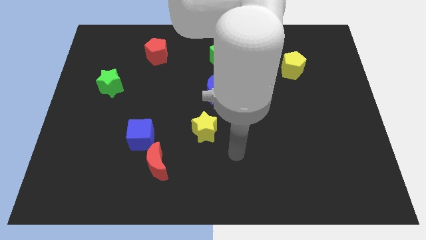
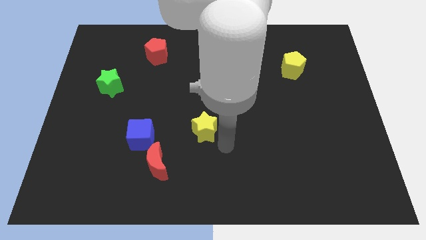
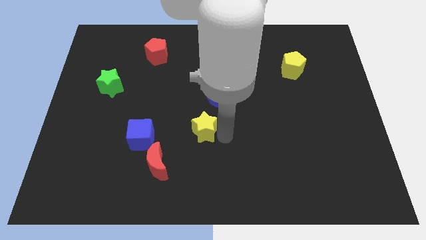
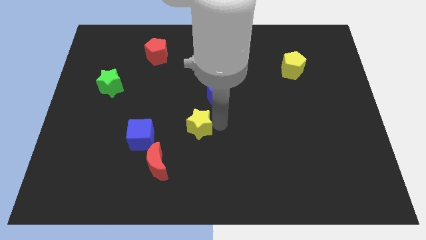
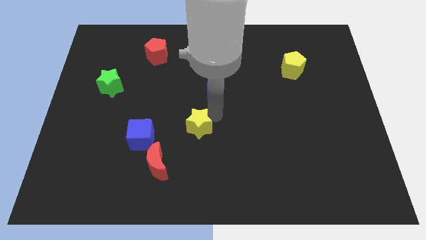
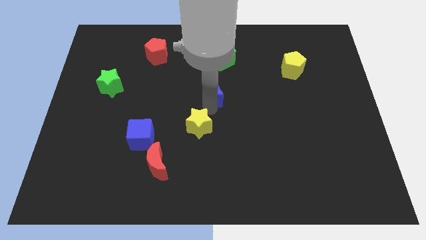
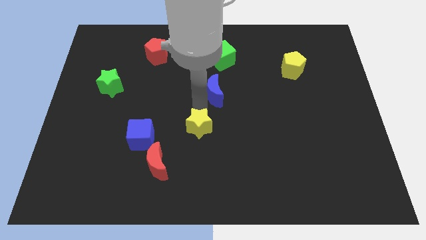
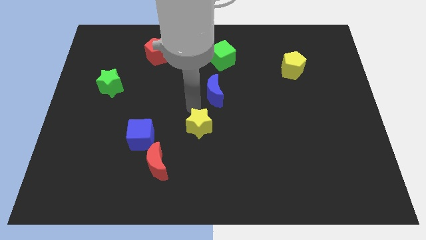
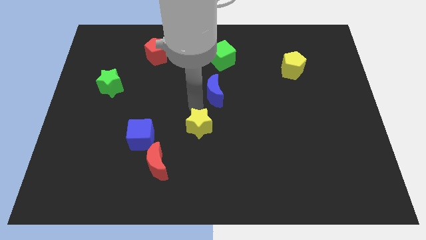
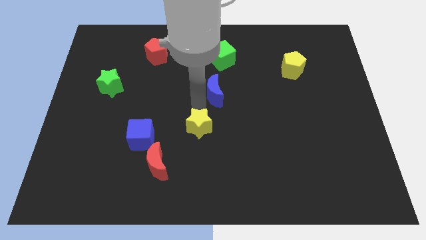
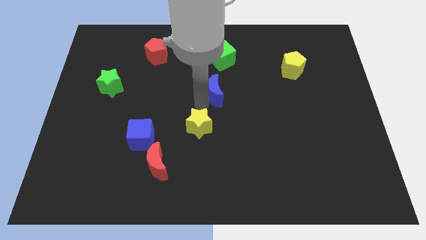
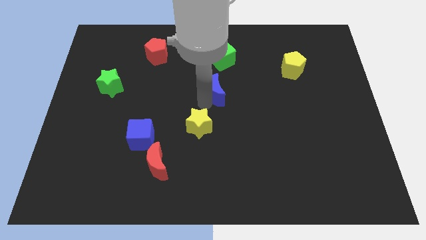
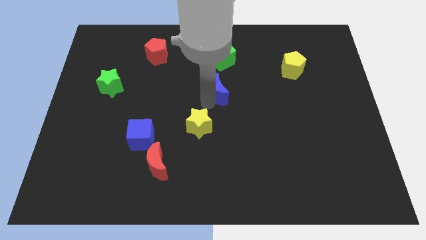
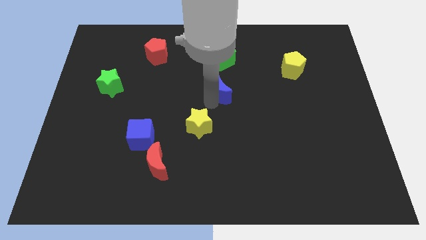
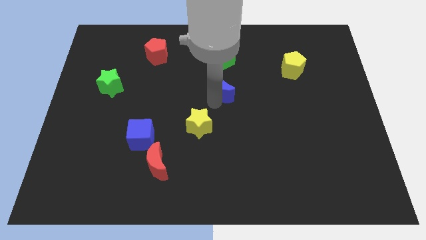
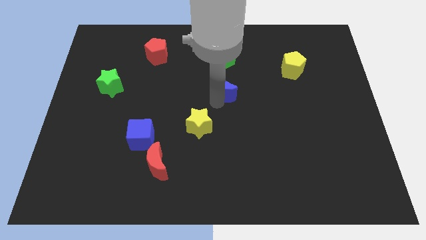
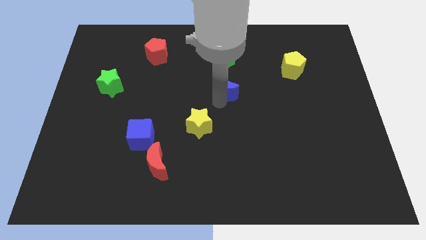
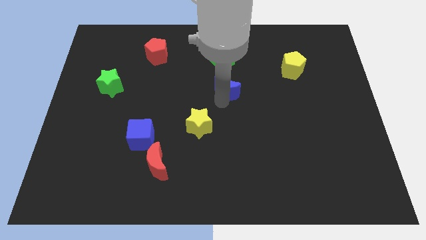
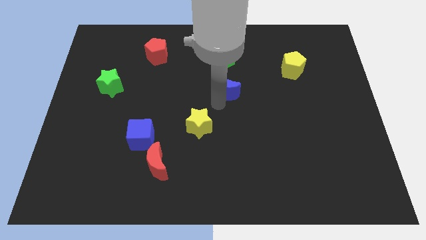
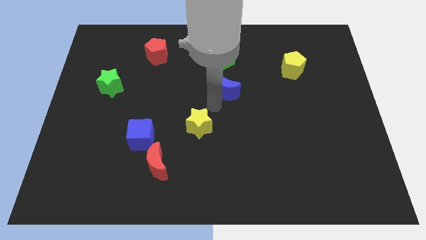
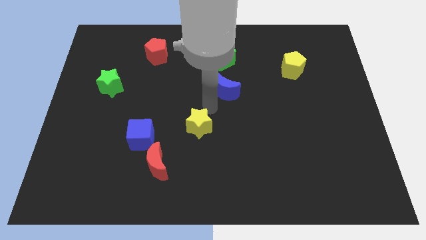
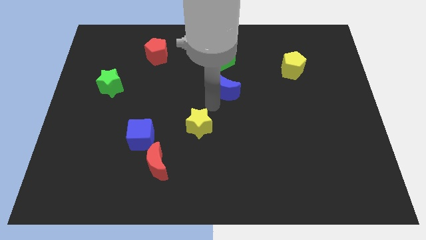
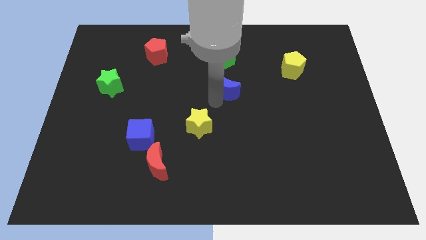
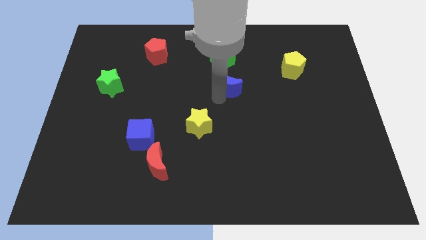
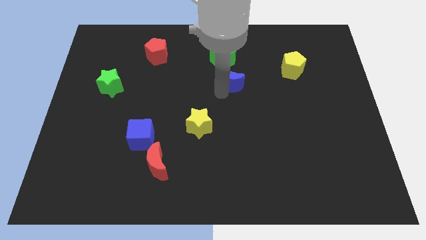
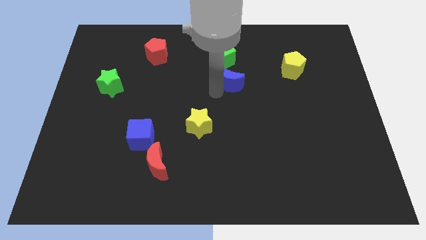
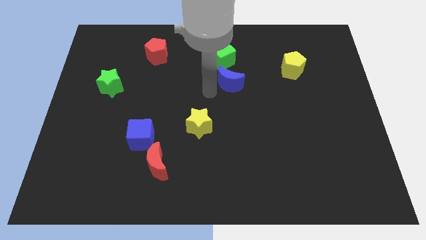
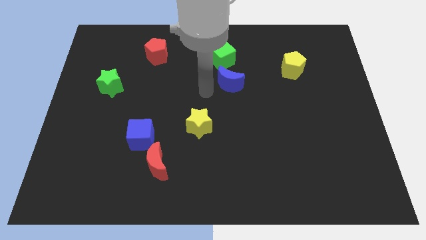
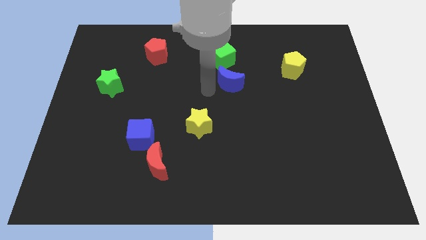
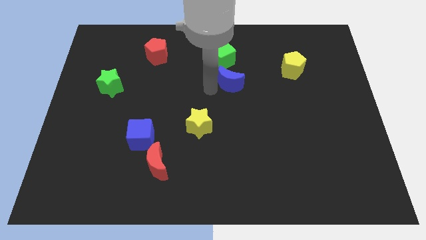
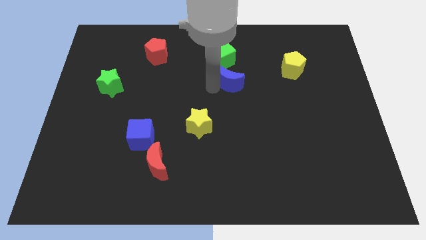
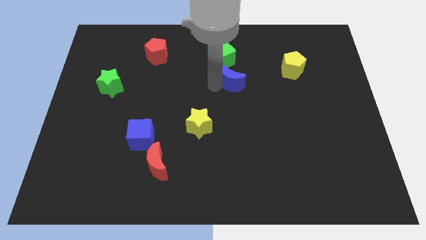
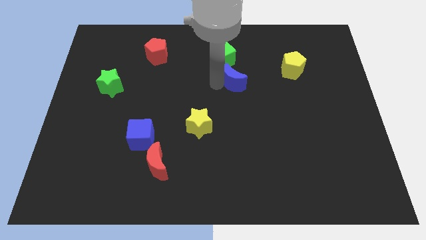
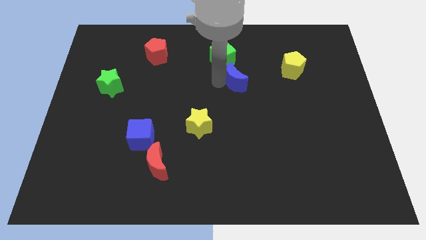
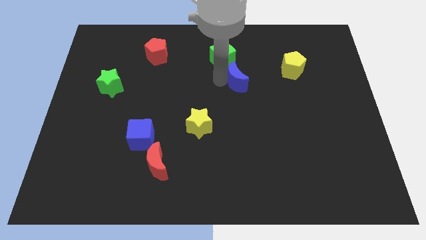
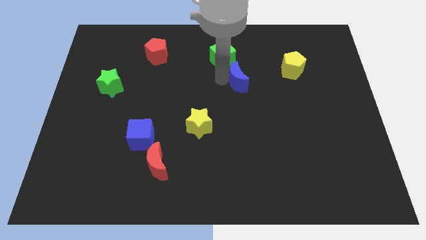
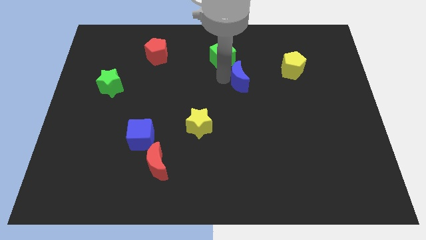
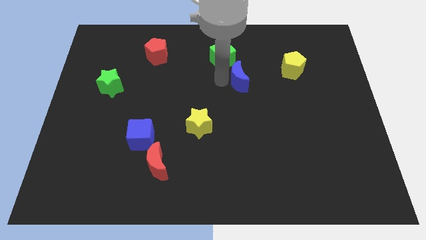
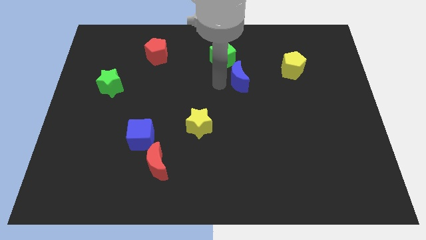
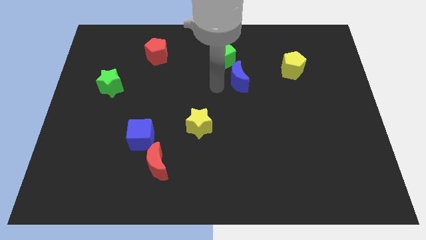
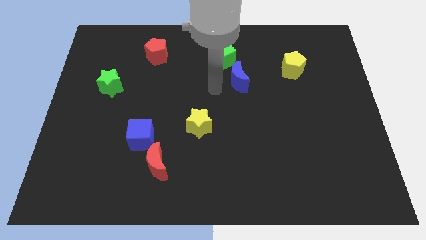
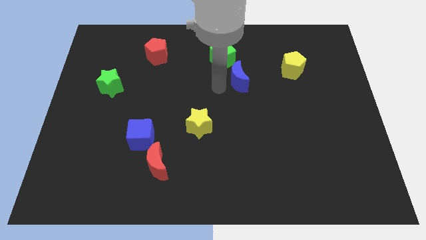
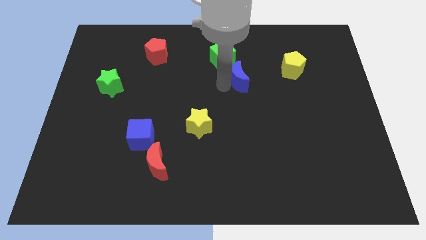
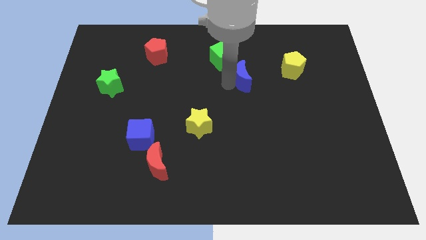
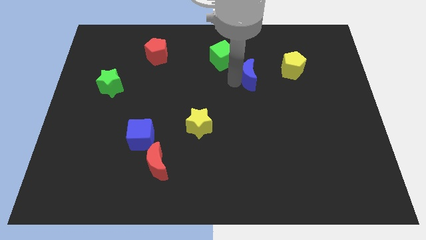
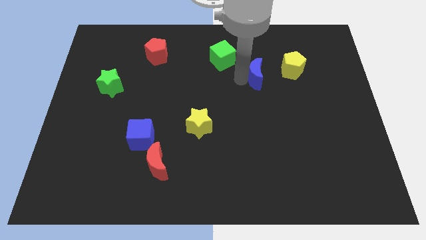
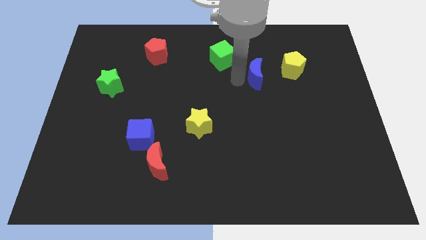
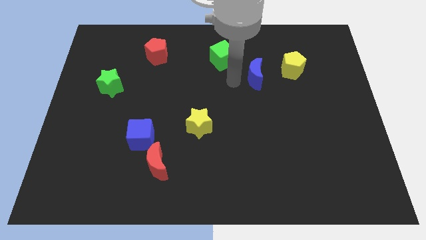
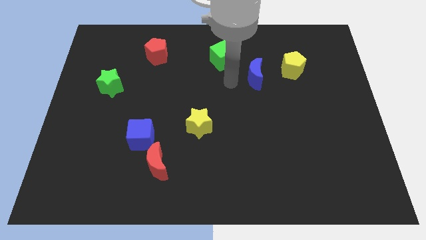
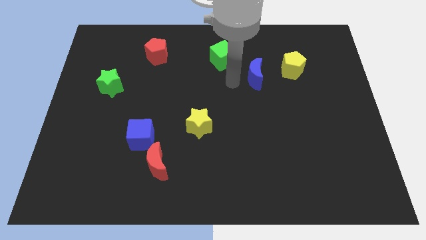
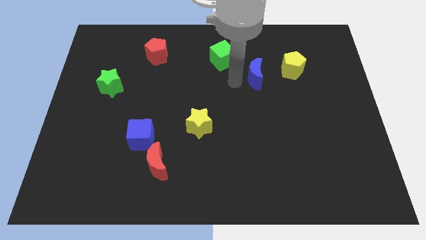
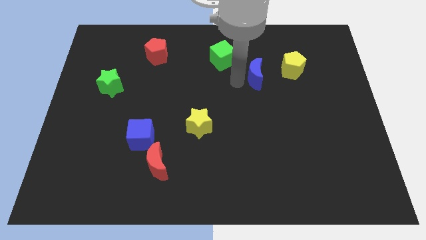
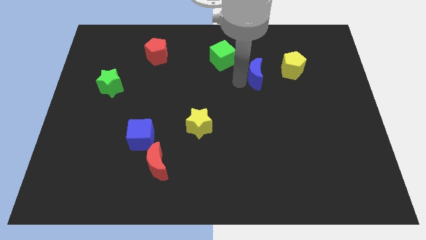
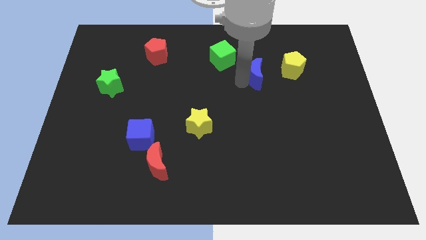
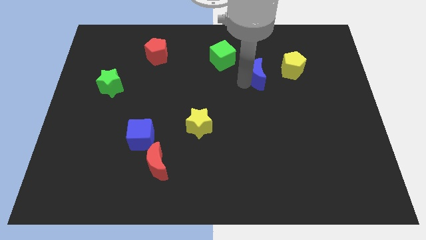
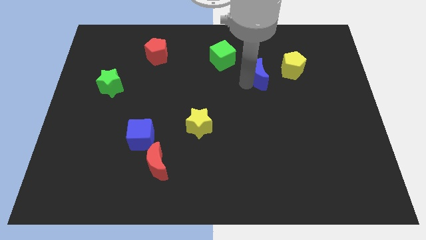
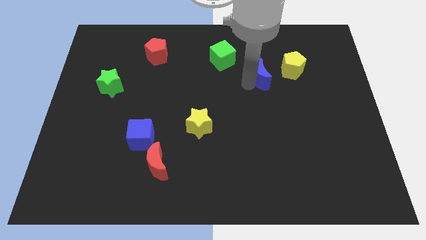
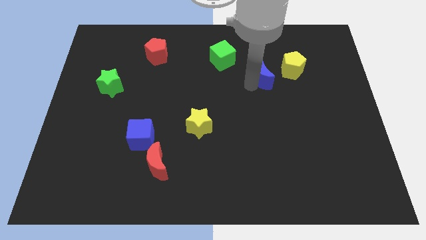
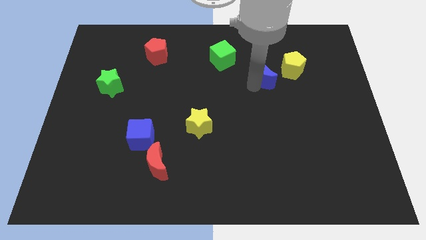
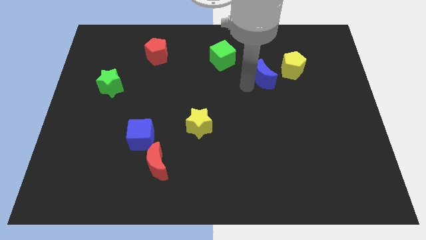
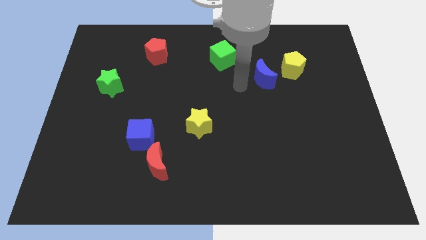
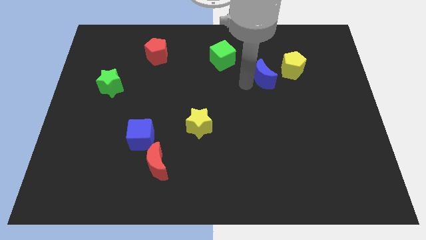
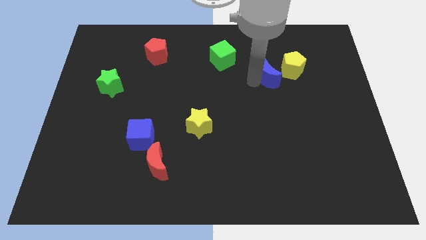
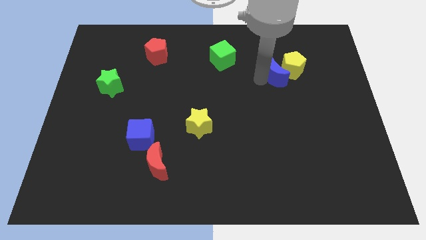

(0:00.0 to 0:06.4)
put the blue moon next to the yellow pentagon

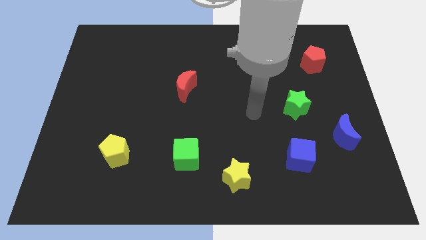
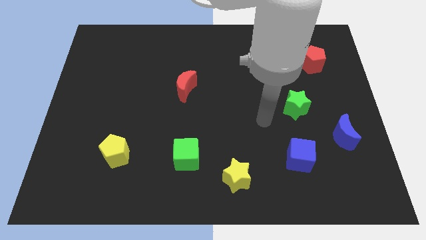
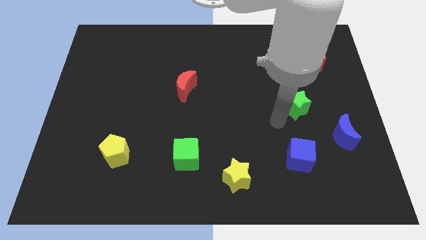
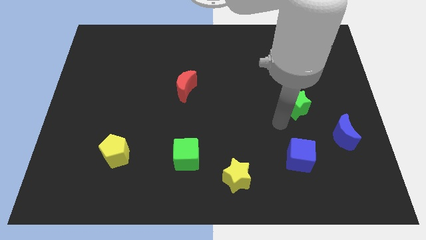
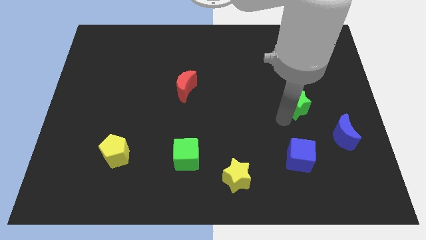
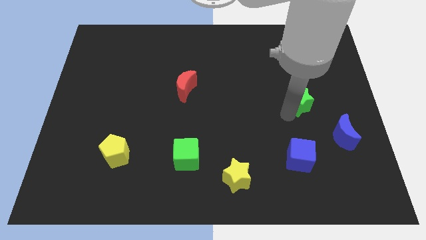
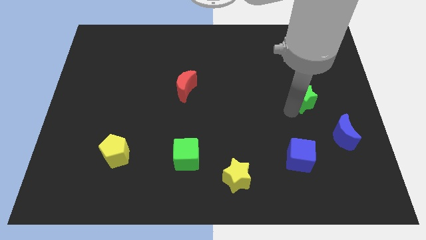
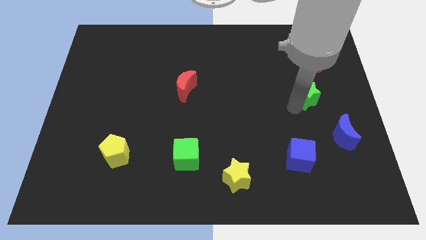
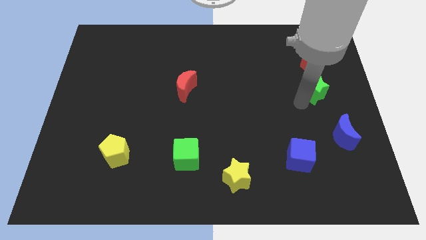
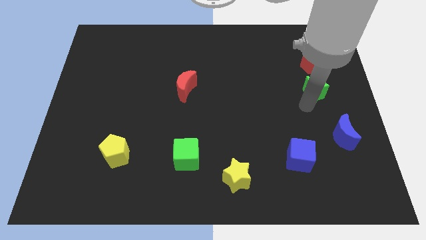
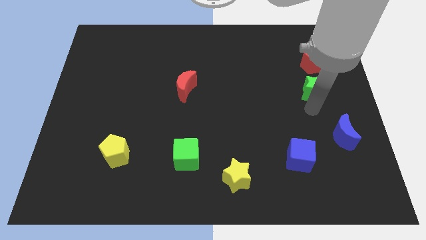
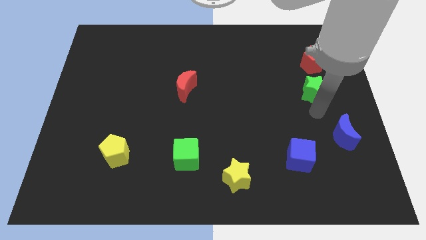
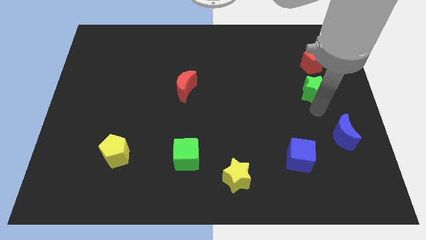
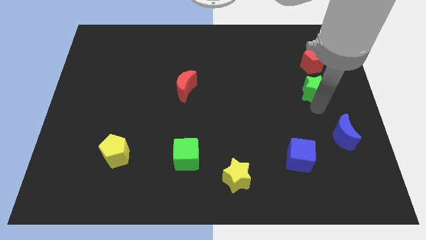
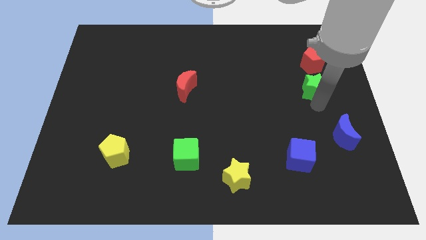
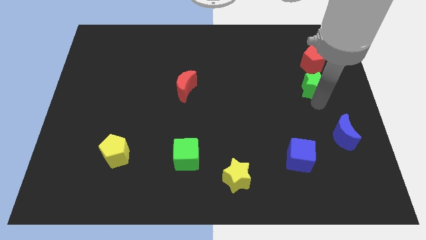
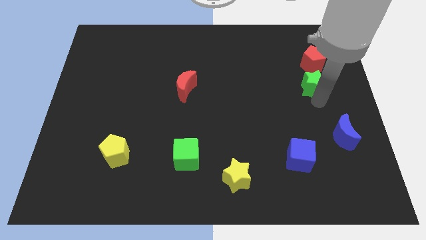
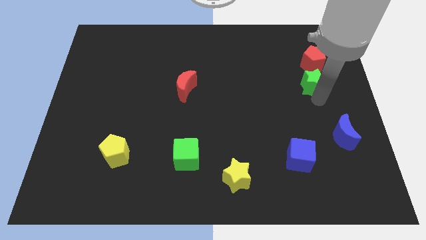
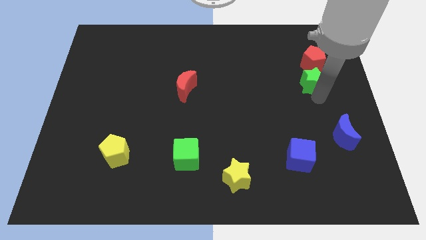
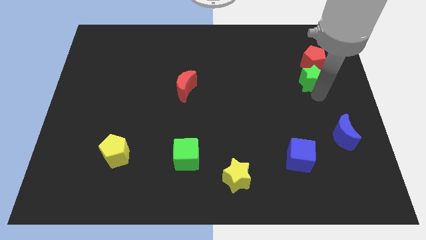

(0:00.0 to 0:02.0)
put the green star to the red pentagon
